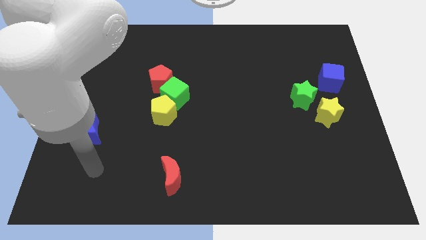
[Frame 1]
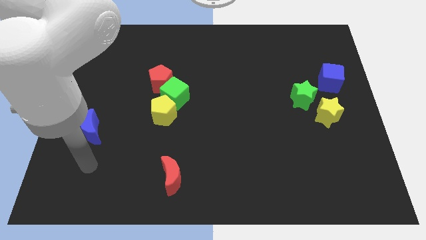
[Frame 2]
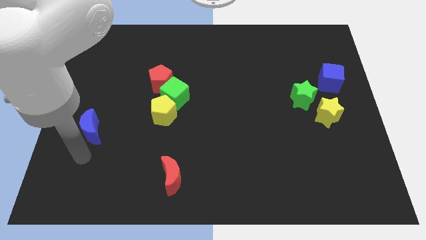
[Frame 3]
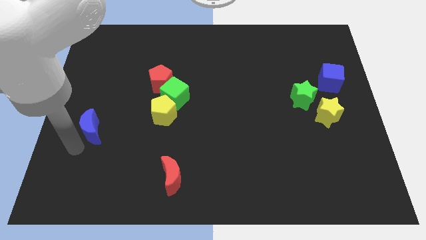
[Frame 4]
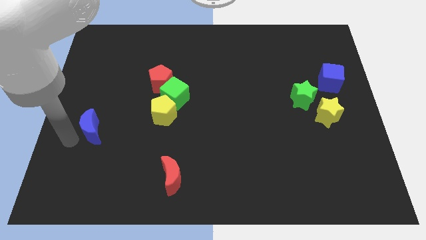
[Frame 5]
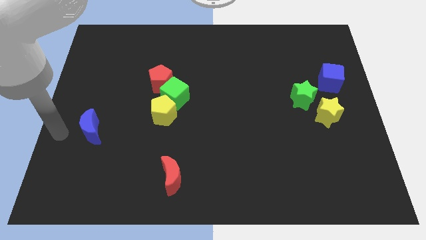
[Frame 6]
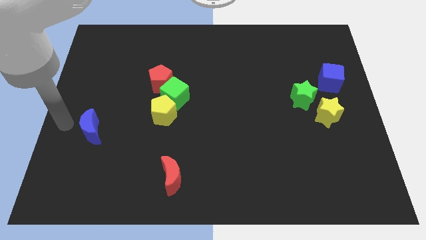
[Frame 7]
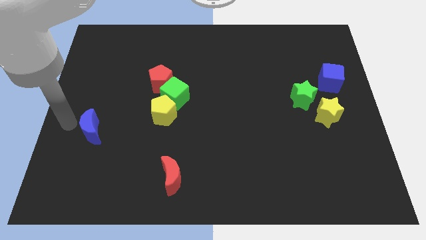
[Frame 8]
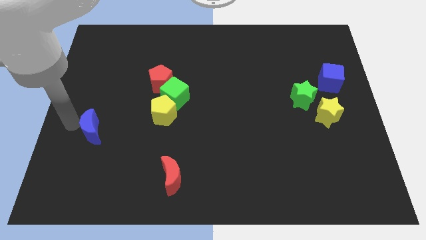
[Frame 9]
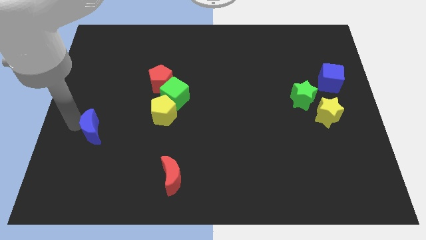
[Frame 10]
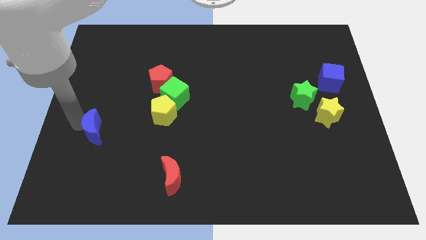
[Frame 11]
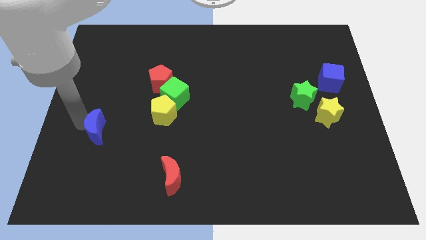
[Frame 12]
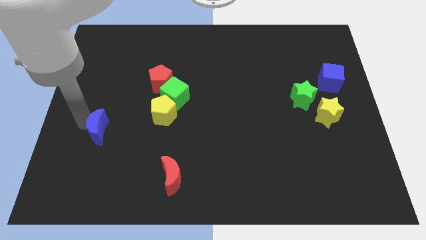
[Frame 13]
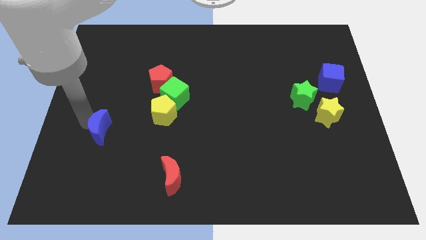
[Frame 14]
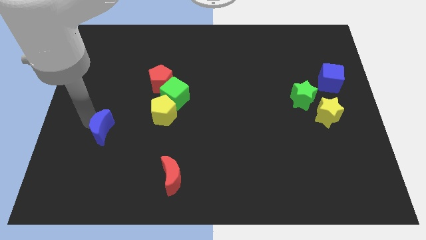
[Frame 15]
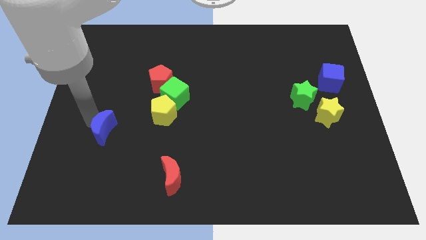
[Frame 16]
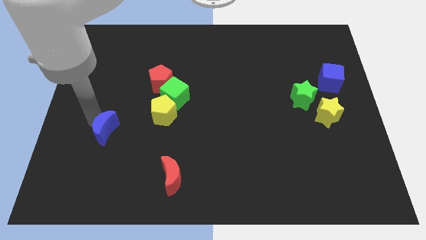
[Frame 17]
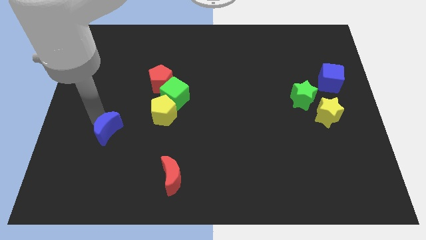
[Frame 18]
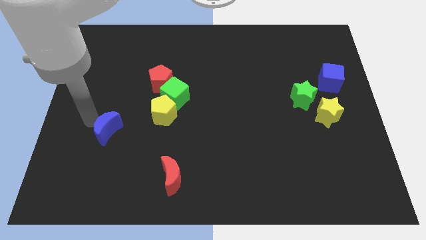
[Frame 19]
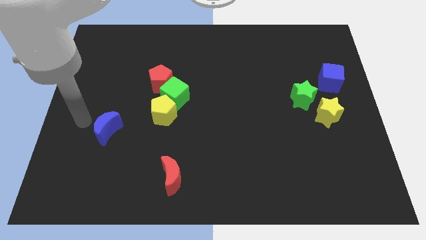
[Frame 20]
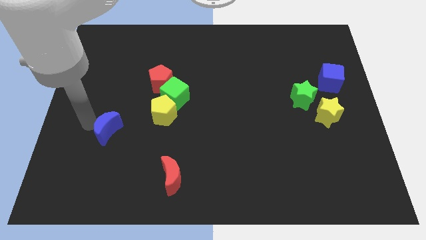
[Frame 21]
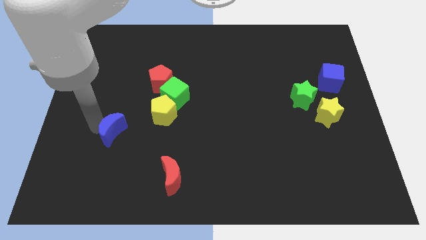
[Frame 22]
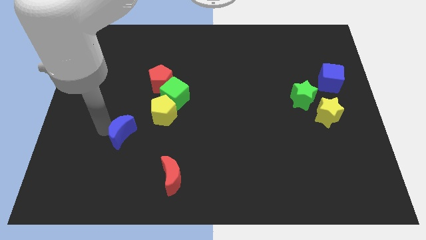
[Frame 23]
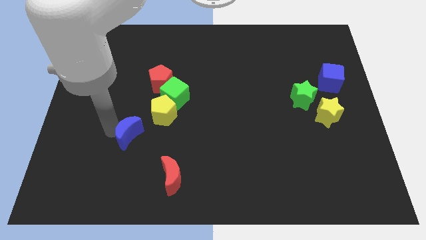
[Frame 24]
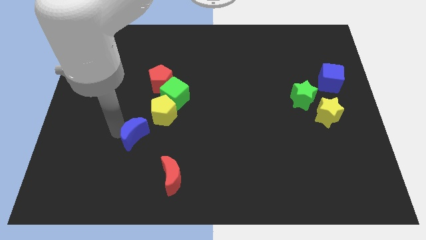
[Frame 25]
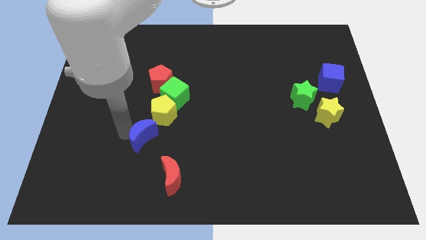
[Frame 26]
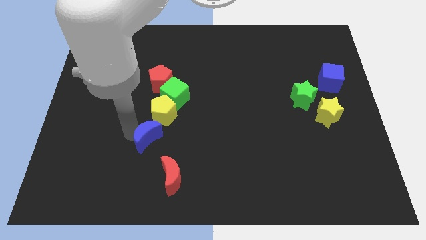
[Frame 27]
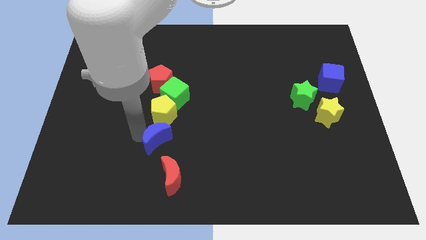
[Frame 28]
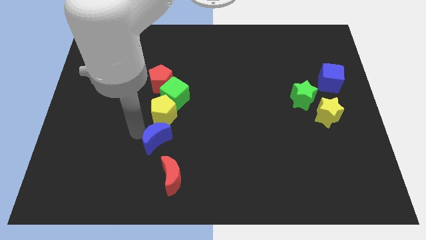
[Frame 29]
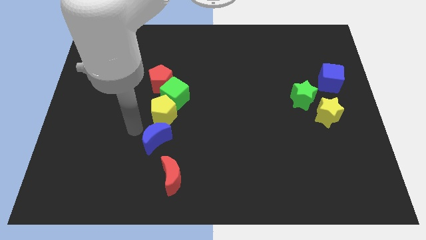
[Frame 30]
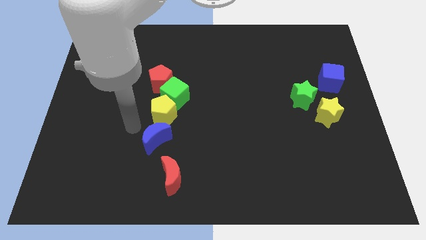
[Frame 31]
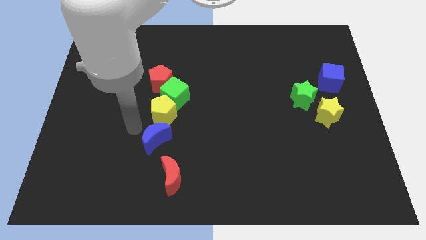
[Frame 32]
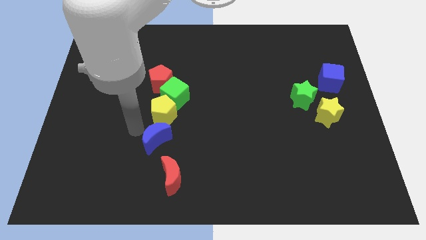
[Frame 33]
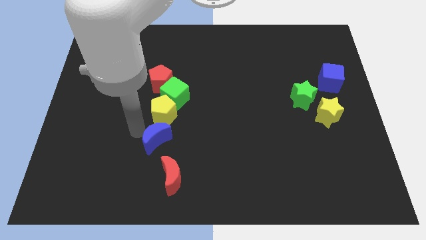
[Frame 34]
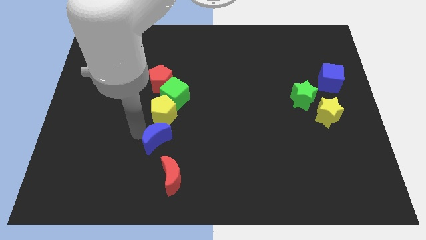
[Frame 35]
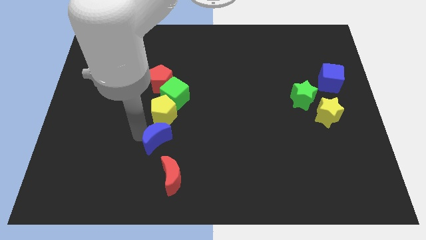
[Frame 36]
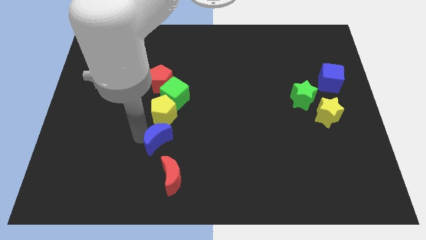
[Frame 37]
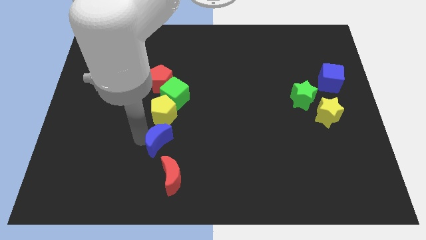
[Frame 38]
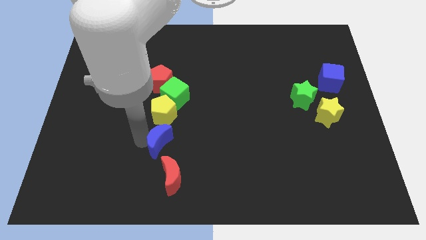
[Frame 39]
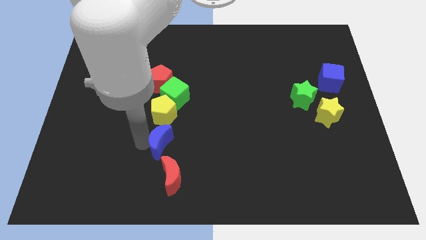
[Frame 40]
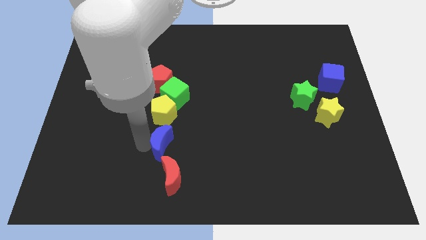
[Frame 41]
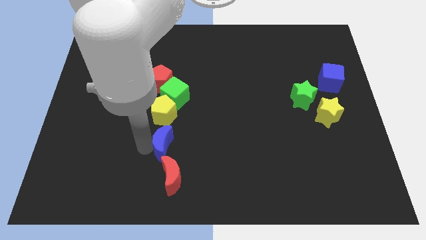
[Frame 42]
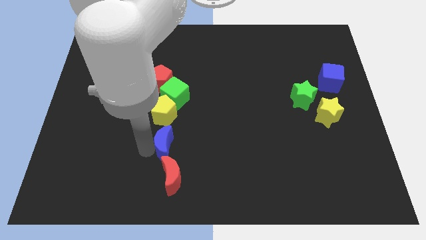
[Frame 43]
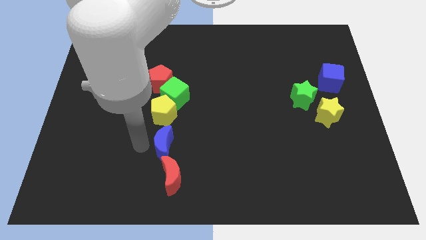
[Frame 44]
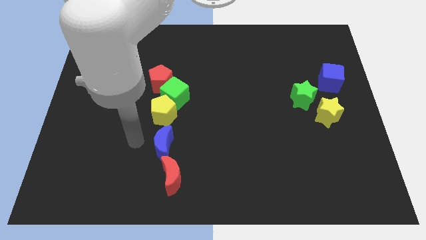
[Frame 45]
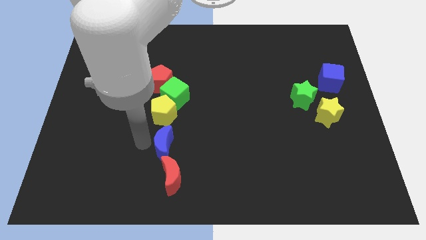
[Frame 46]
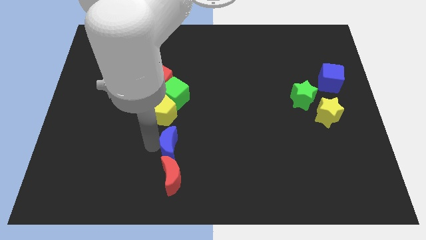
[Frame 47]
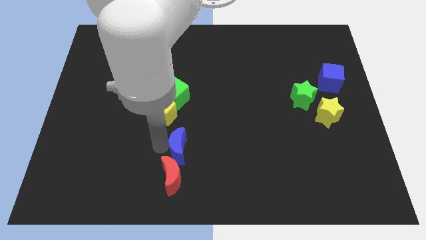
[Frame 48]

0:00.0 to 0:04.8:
put the blue moon to the top right of the red moon

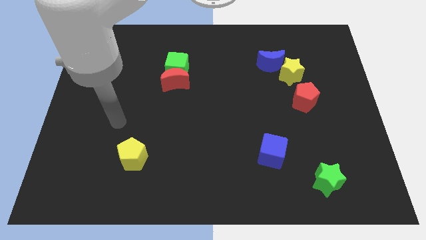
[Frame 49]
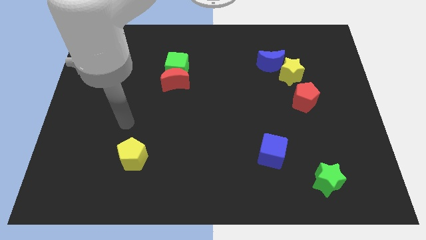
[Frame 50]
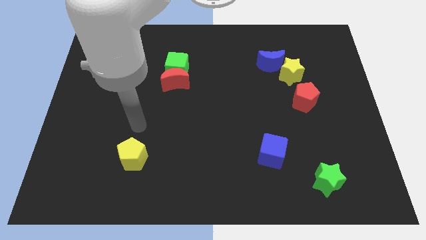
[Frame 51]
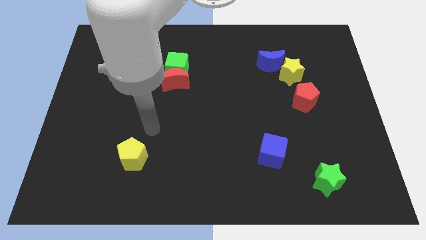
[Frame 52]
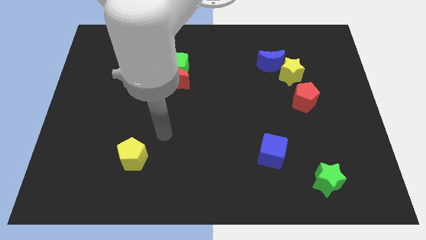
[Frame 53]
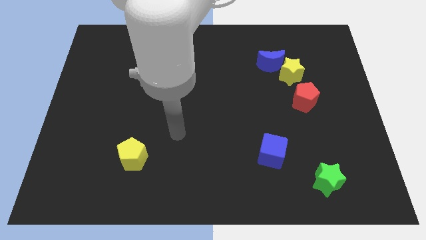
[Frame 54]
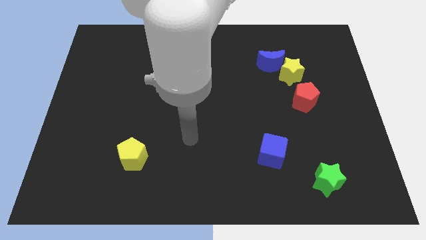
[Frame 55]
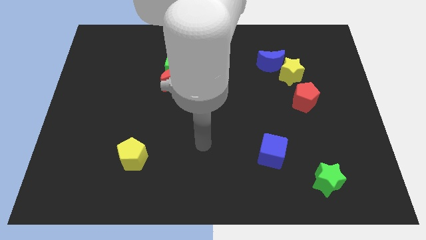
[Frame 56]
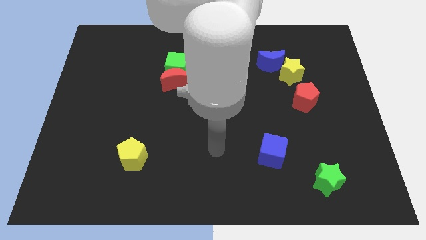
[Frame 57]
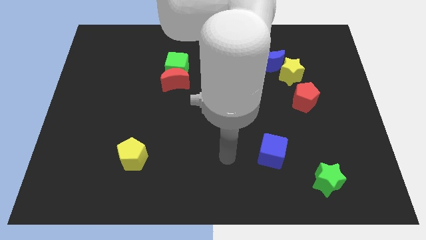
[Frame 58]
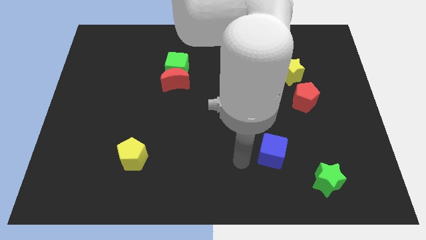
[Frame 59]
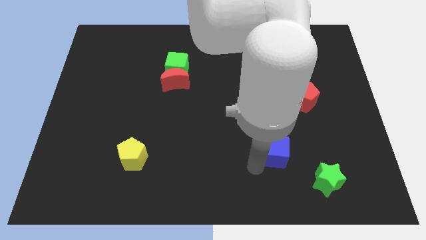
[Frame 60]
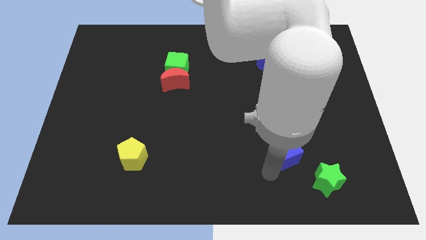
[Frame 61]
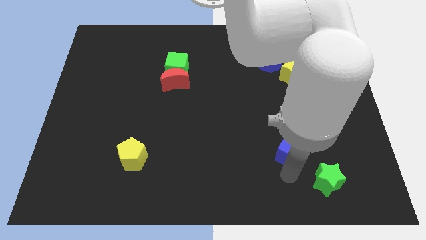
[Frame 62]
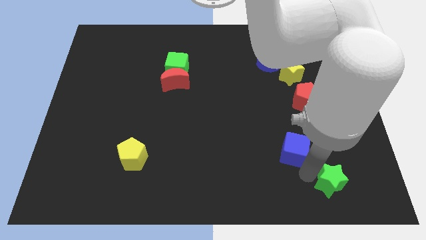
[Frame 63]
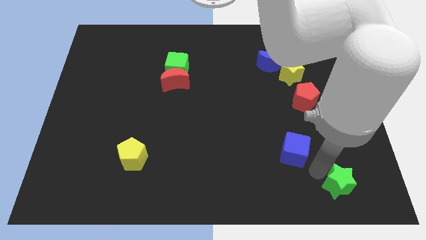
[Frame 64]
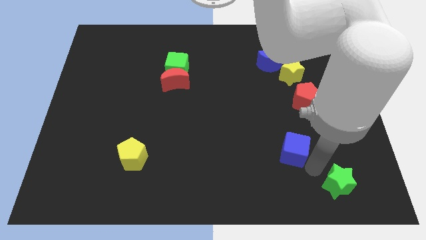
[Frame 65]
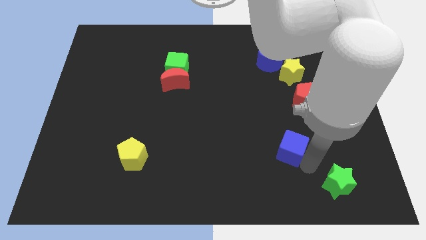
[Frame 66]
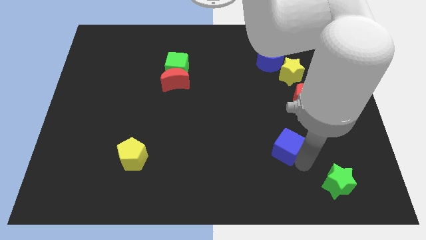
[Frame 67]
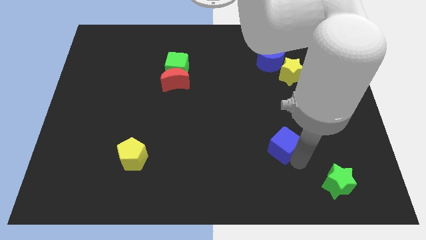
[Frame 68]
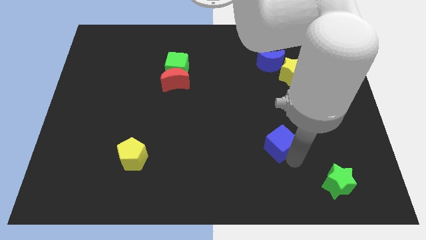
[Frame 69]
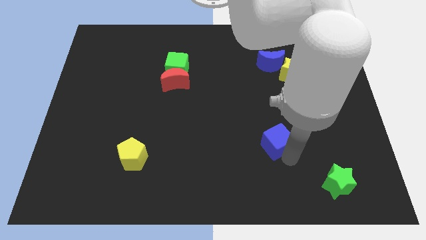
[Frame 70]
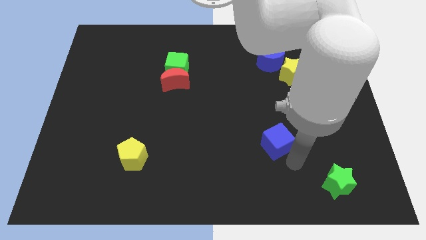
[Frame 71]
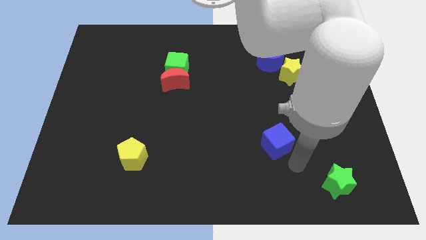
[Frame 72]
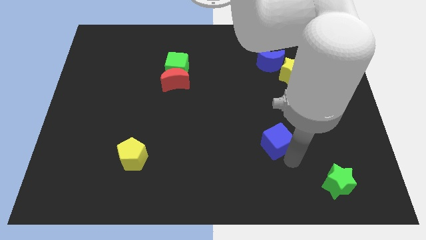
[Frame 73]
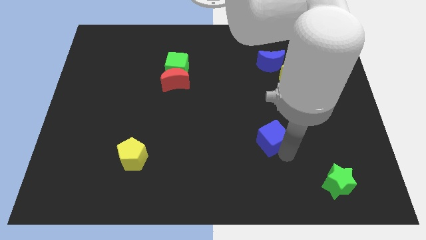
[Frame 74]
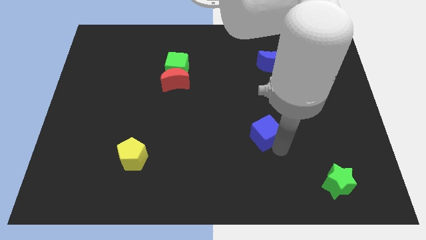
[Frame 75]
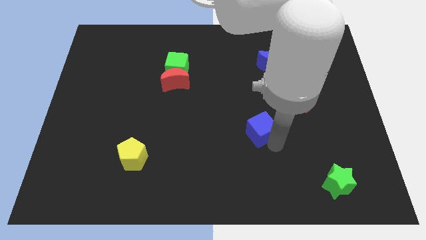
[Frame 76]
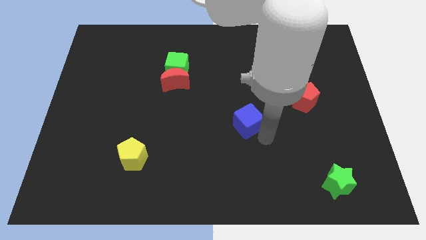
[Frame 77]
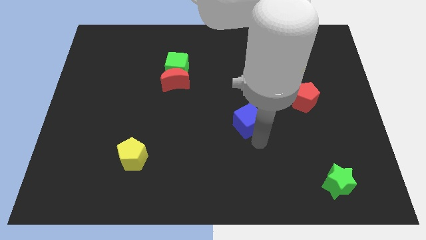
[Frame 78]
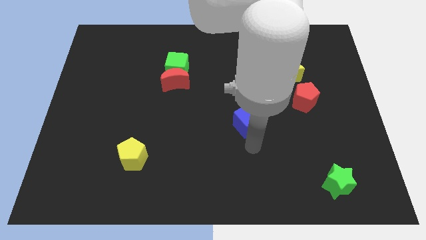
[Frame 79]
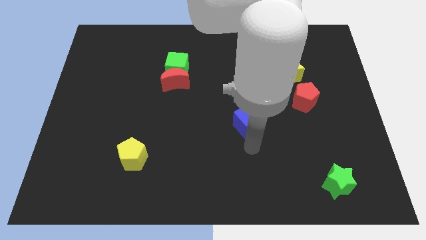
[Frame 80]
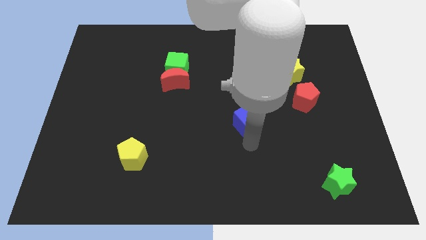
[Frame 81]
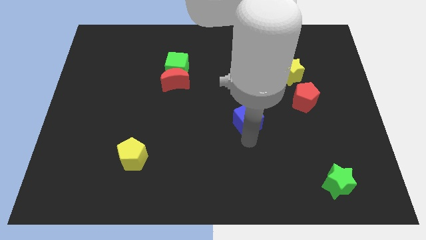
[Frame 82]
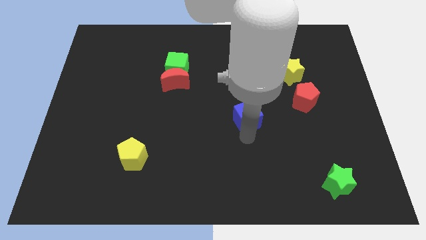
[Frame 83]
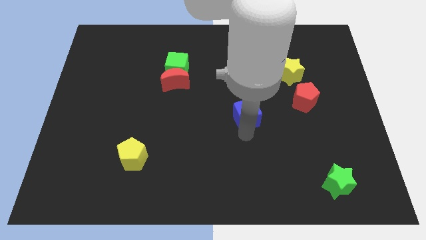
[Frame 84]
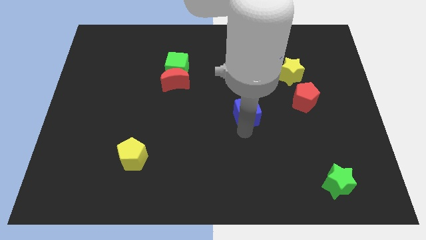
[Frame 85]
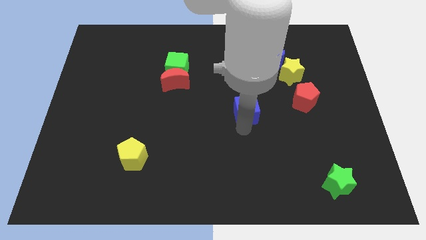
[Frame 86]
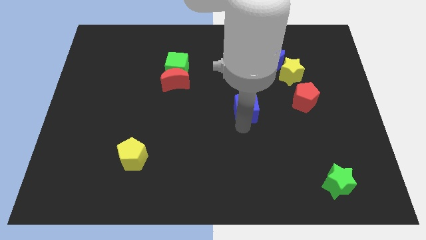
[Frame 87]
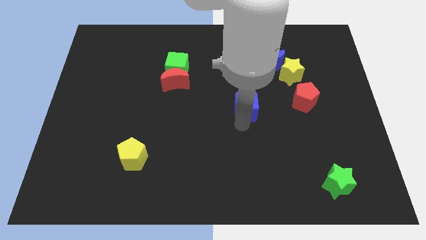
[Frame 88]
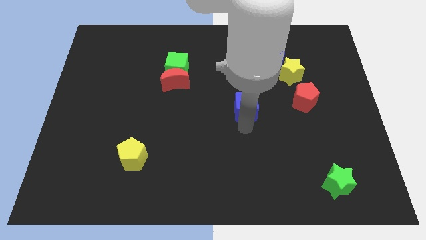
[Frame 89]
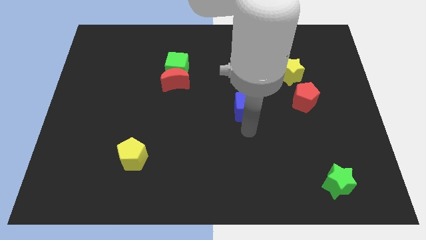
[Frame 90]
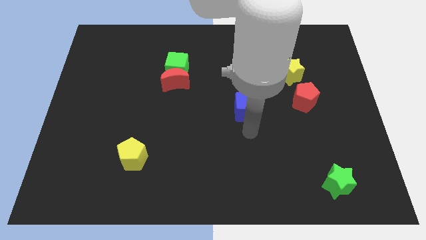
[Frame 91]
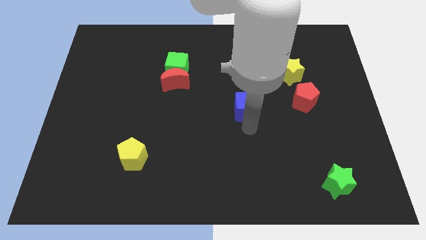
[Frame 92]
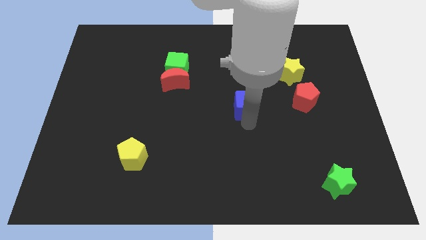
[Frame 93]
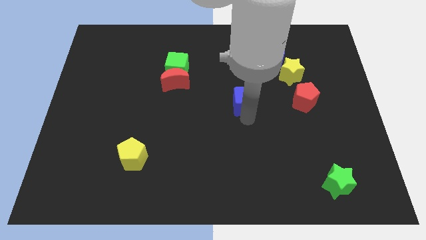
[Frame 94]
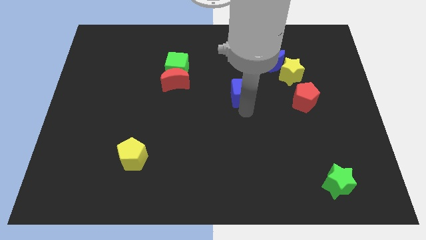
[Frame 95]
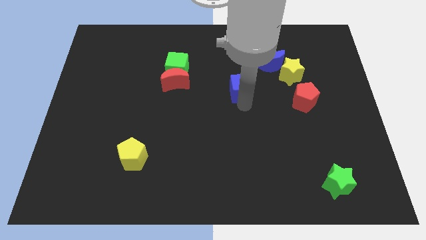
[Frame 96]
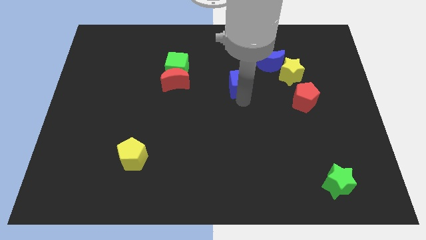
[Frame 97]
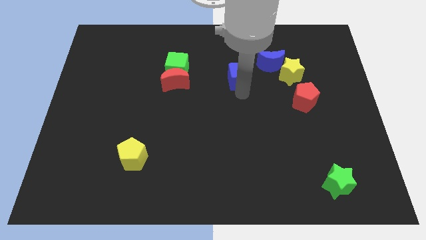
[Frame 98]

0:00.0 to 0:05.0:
move the blue cube just left of the blue moon
